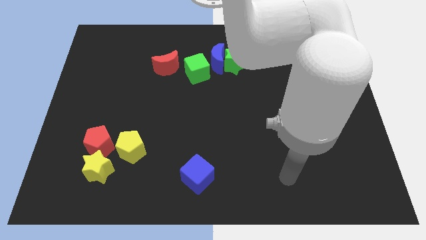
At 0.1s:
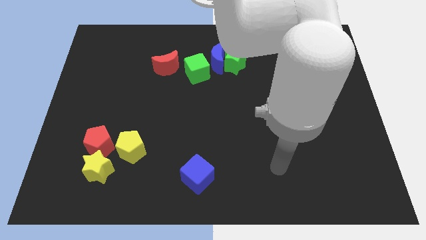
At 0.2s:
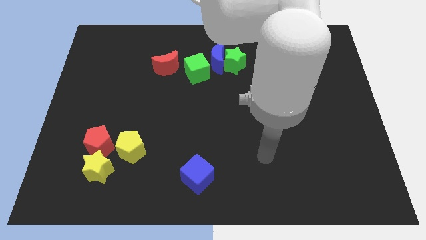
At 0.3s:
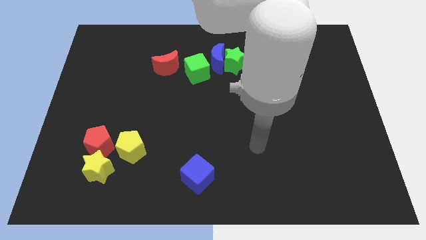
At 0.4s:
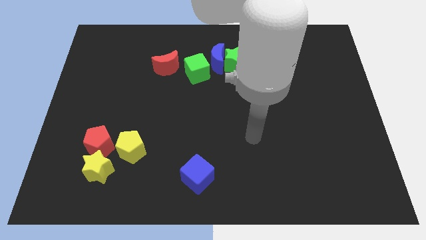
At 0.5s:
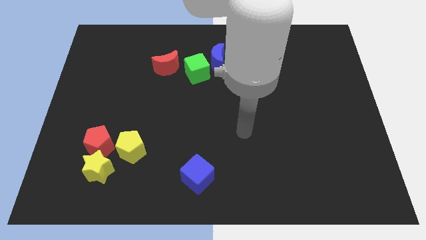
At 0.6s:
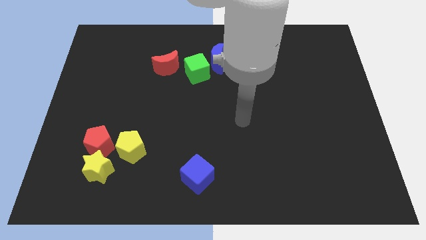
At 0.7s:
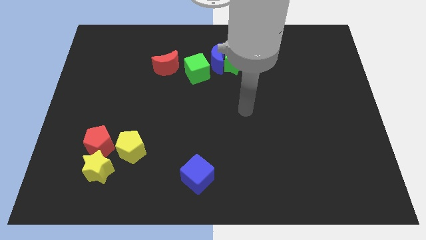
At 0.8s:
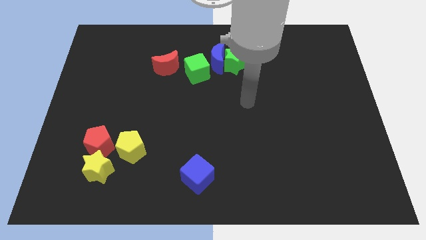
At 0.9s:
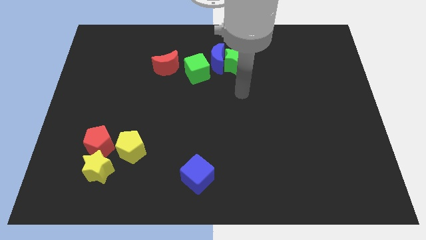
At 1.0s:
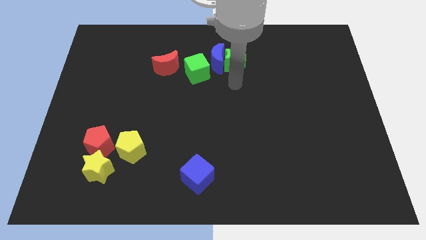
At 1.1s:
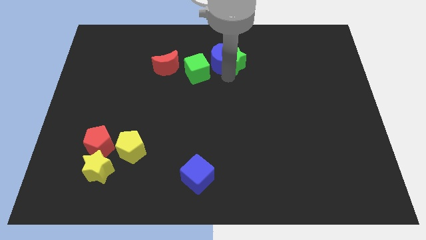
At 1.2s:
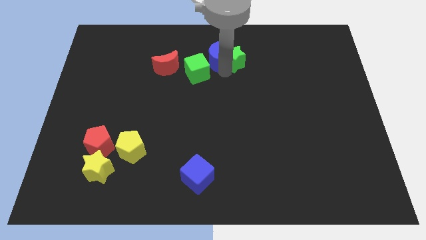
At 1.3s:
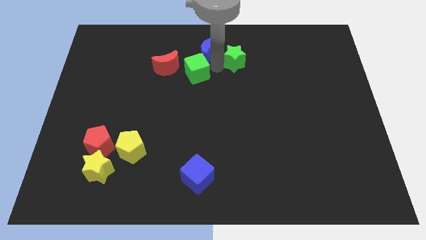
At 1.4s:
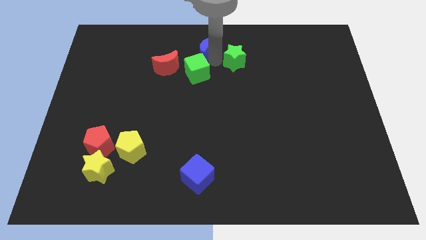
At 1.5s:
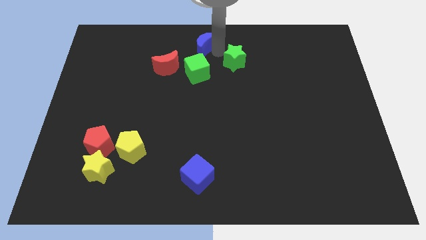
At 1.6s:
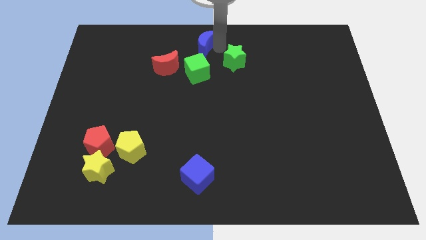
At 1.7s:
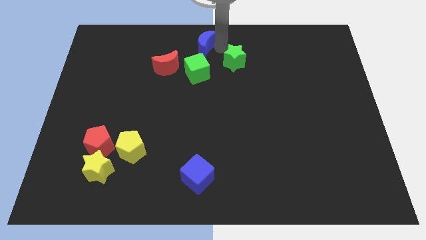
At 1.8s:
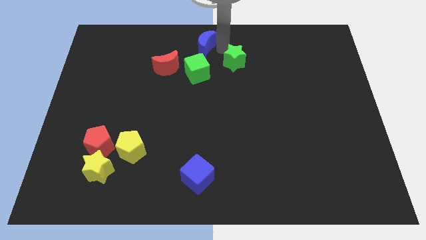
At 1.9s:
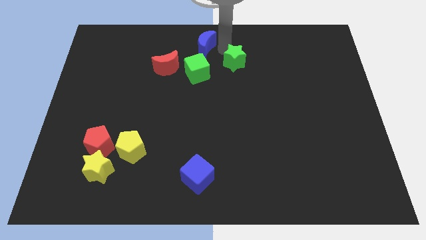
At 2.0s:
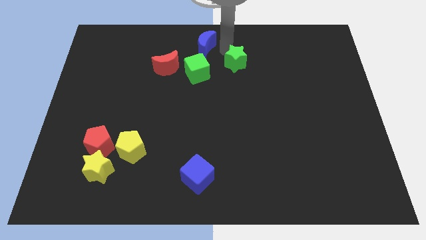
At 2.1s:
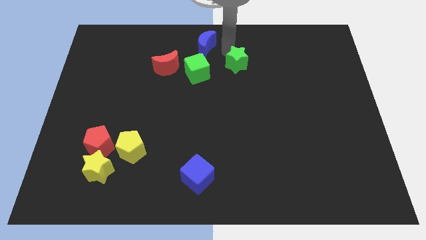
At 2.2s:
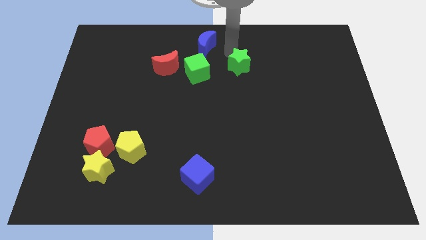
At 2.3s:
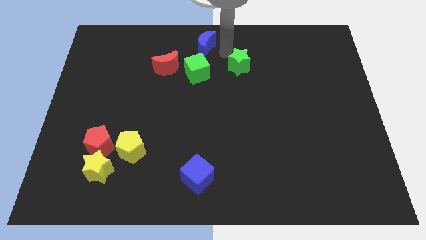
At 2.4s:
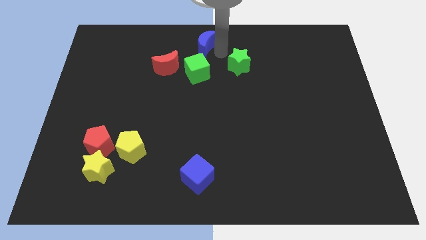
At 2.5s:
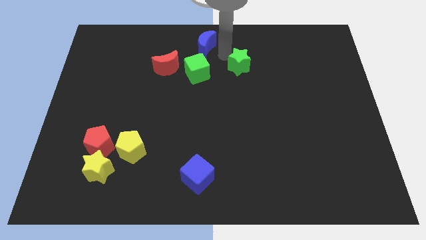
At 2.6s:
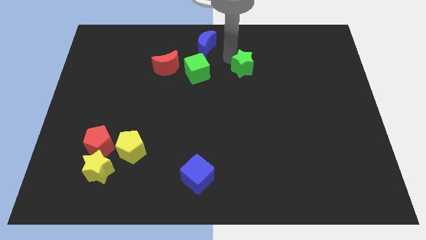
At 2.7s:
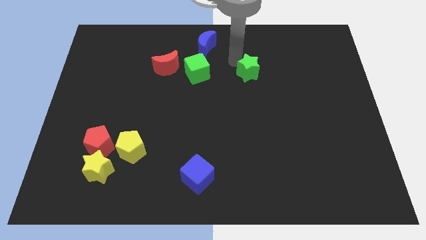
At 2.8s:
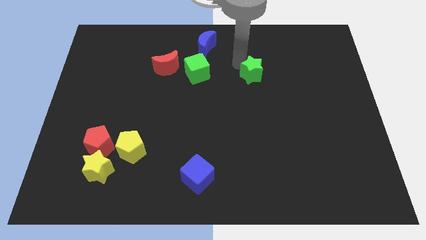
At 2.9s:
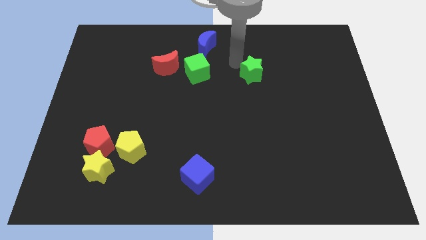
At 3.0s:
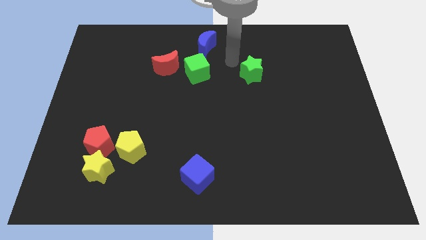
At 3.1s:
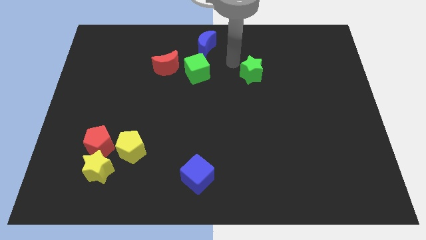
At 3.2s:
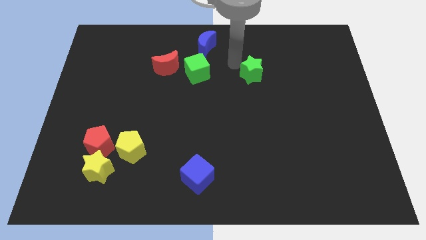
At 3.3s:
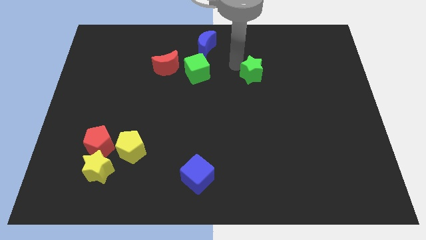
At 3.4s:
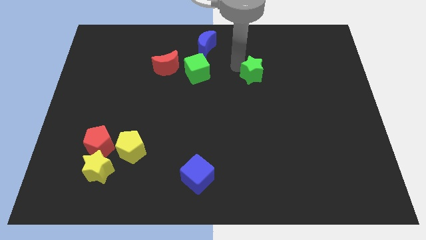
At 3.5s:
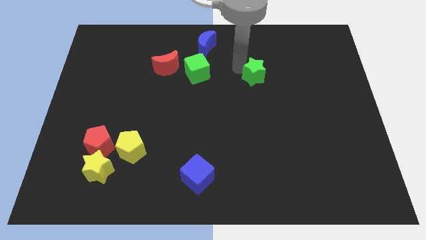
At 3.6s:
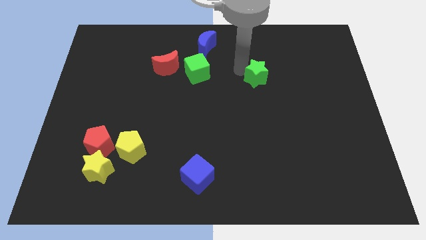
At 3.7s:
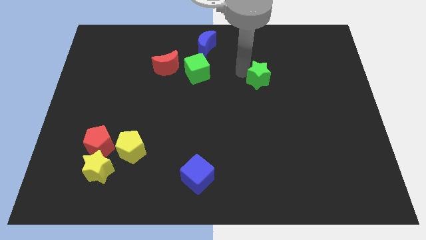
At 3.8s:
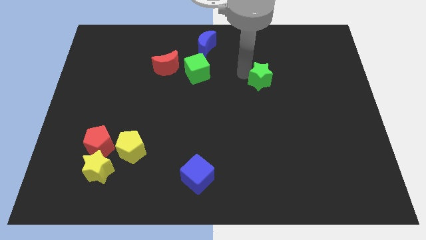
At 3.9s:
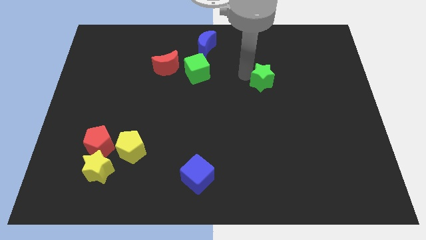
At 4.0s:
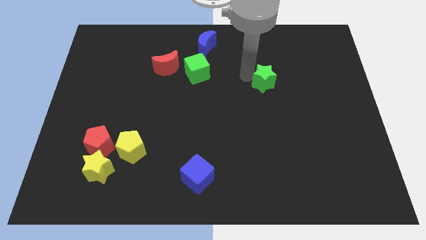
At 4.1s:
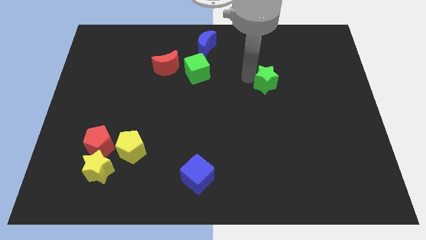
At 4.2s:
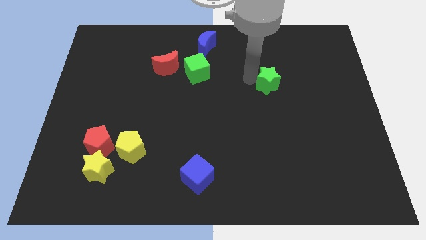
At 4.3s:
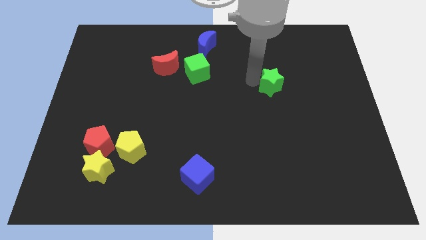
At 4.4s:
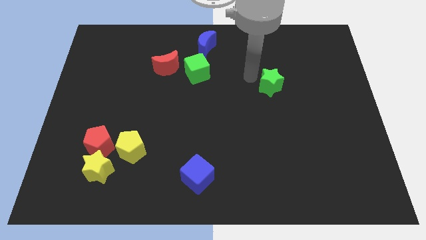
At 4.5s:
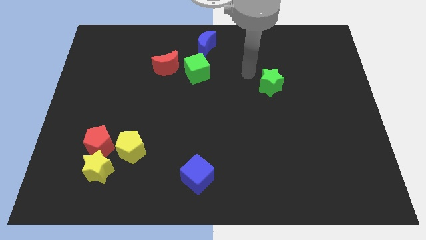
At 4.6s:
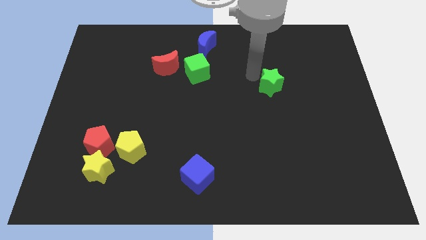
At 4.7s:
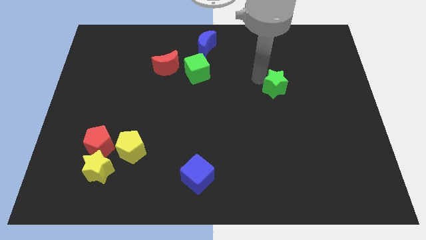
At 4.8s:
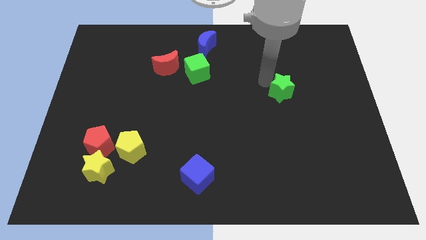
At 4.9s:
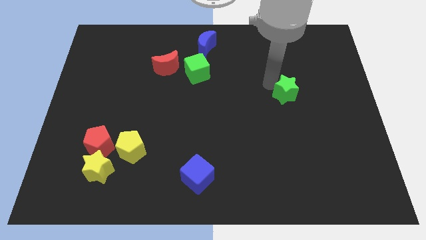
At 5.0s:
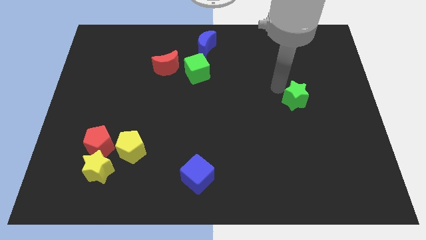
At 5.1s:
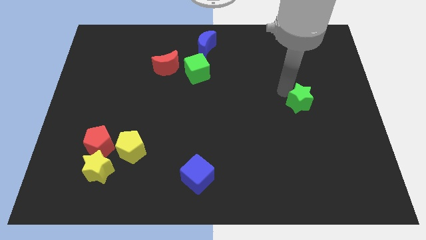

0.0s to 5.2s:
push the green star downwards and to the right diagonally

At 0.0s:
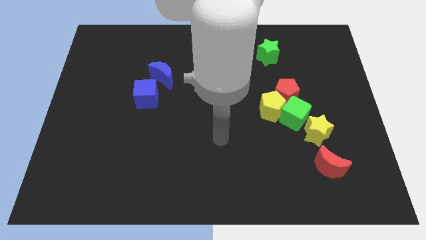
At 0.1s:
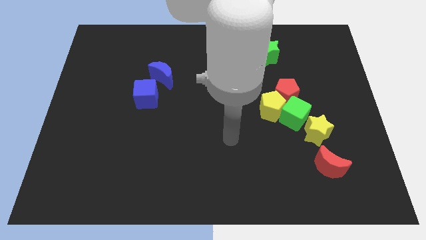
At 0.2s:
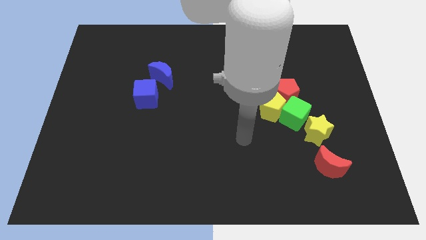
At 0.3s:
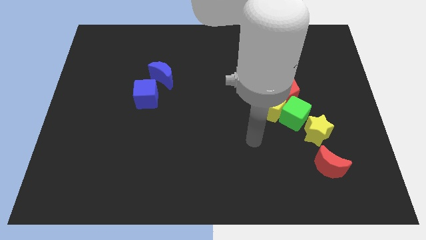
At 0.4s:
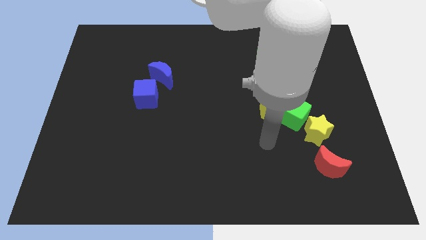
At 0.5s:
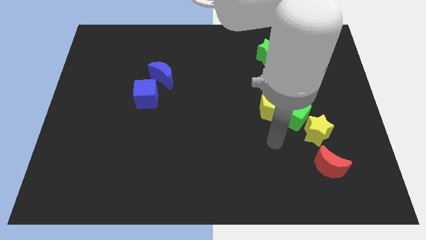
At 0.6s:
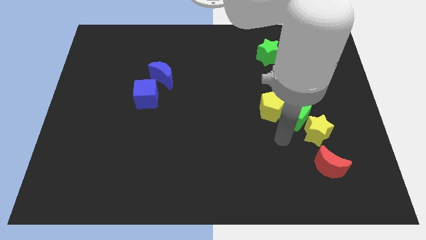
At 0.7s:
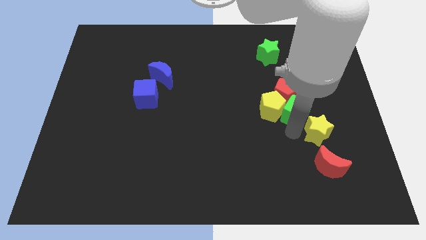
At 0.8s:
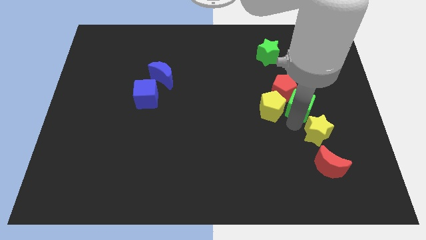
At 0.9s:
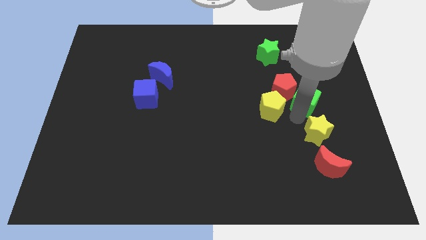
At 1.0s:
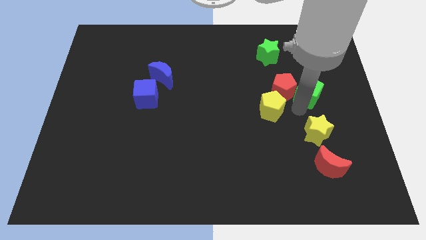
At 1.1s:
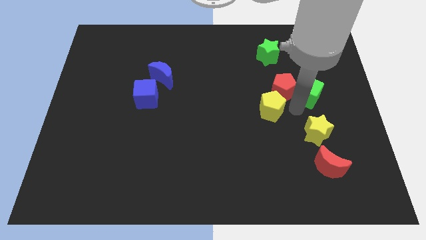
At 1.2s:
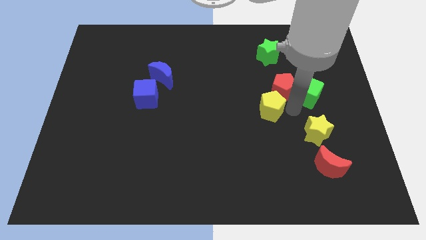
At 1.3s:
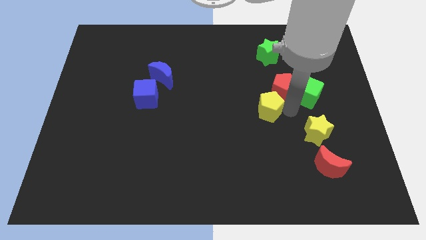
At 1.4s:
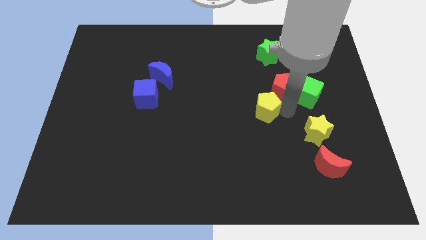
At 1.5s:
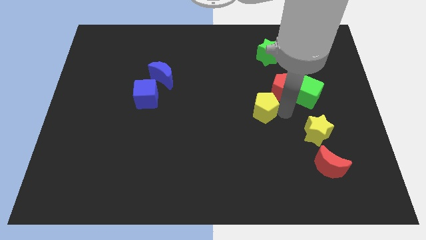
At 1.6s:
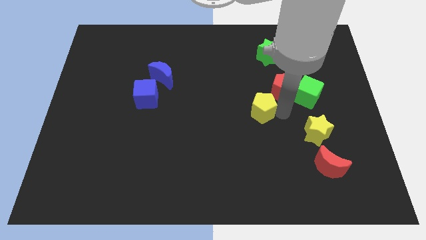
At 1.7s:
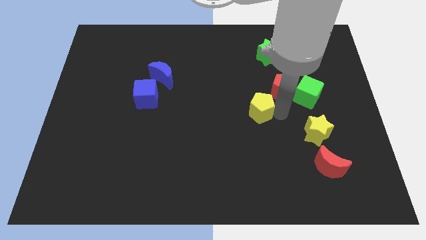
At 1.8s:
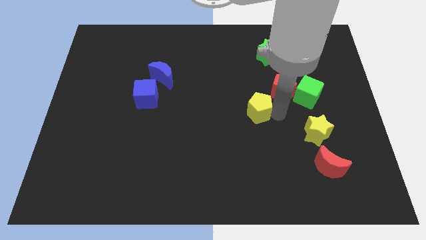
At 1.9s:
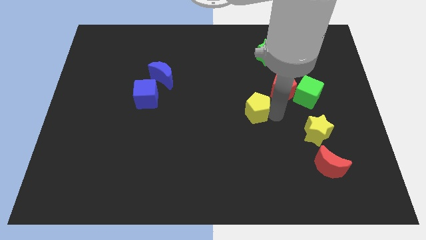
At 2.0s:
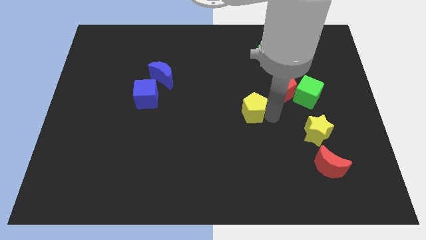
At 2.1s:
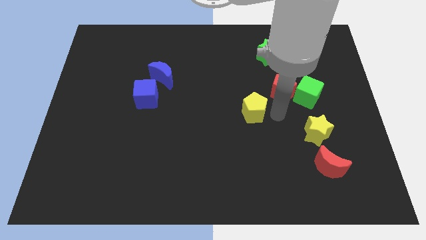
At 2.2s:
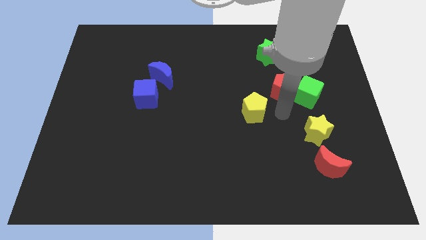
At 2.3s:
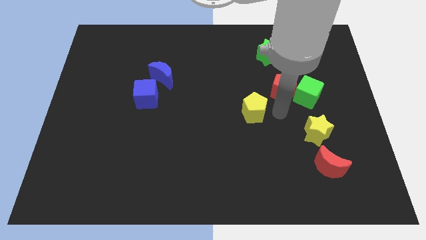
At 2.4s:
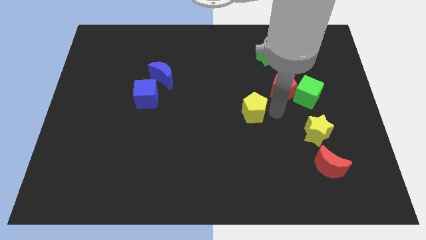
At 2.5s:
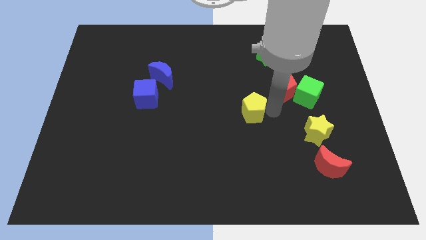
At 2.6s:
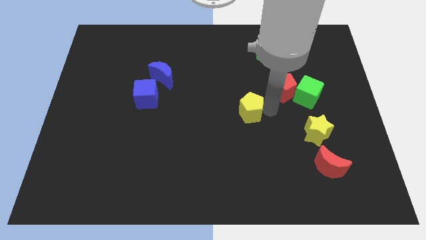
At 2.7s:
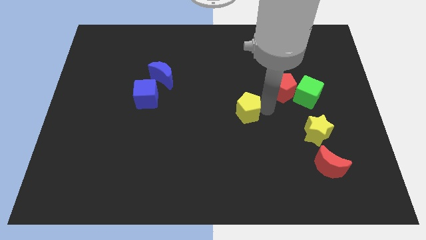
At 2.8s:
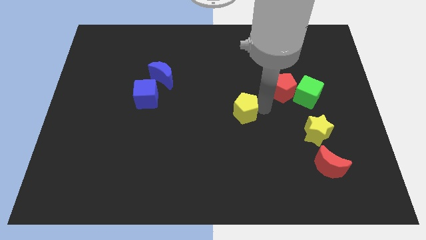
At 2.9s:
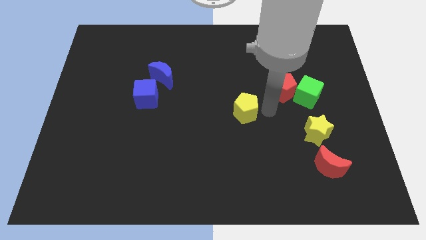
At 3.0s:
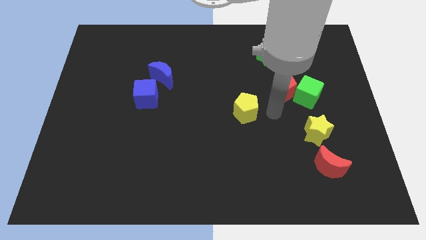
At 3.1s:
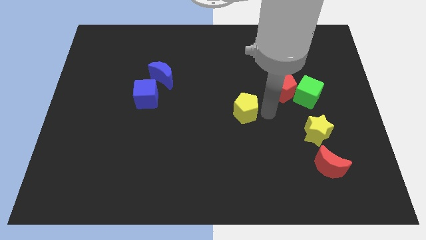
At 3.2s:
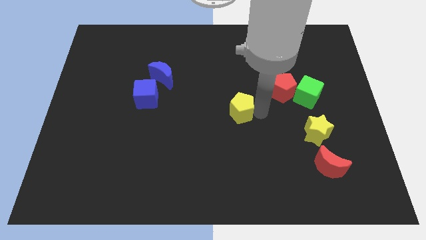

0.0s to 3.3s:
move the yellow pentagon left slightly

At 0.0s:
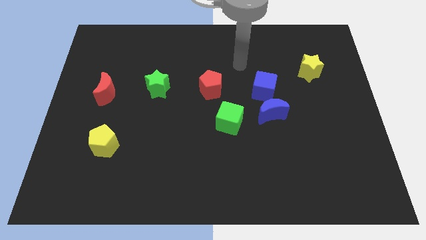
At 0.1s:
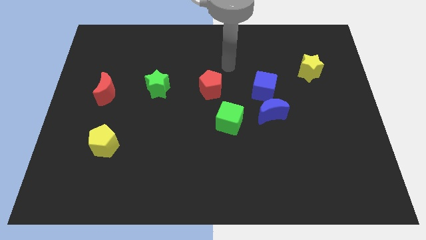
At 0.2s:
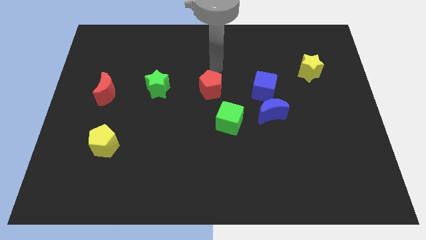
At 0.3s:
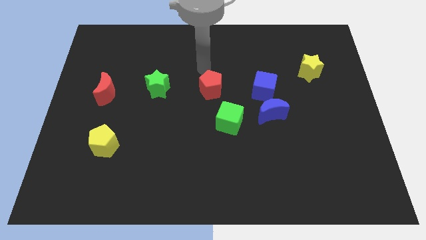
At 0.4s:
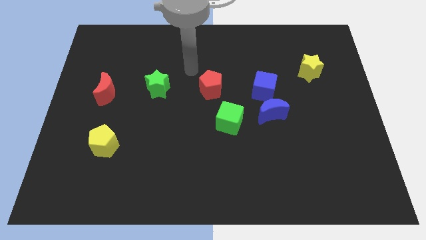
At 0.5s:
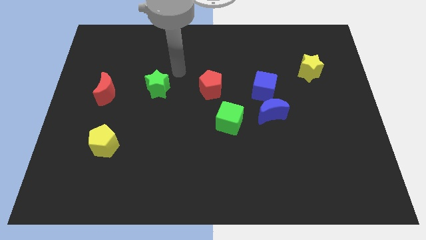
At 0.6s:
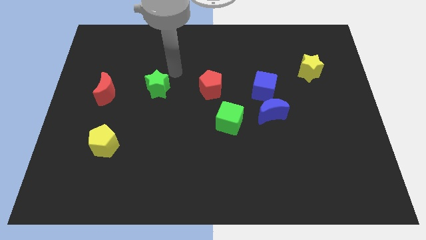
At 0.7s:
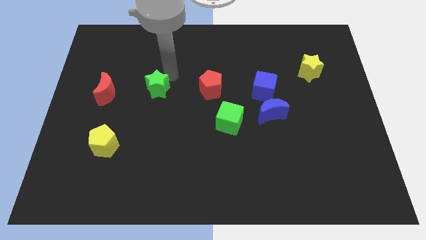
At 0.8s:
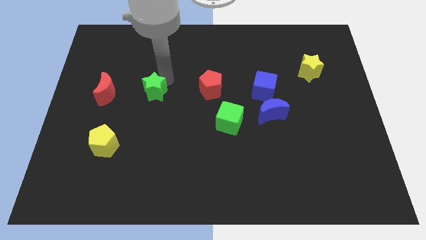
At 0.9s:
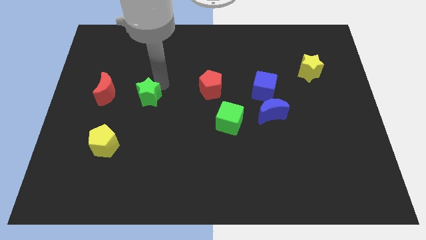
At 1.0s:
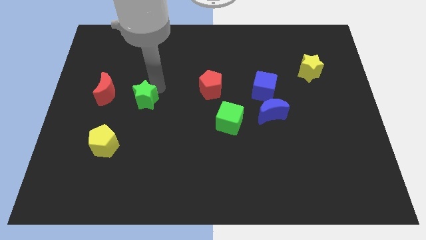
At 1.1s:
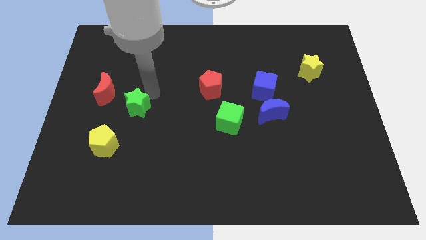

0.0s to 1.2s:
slightly move the green star downwards and left
